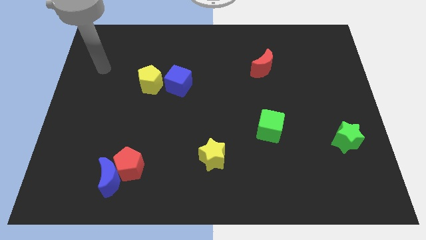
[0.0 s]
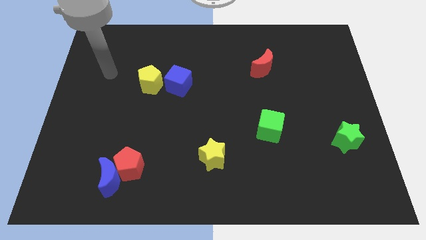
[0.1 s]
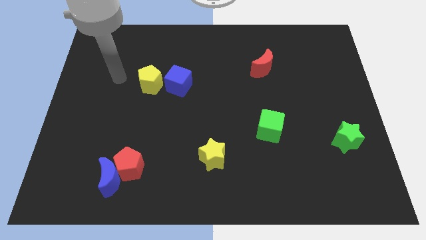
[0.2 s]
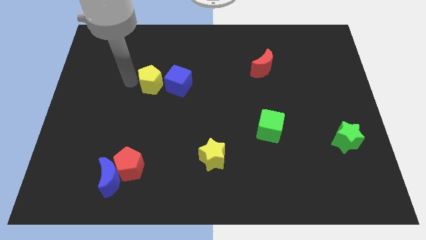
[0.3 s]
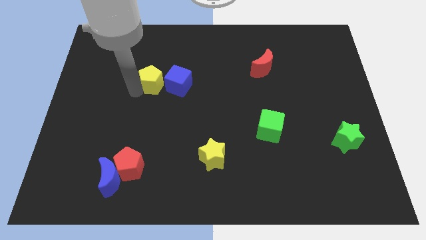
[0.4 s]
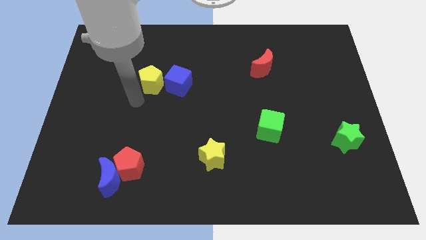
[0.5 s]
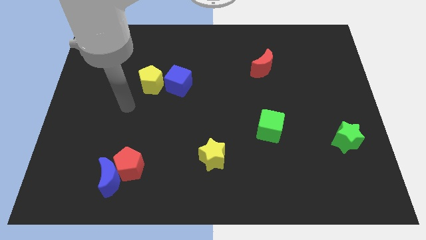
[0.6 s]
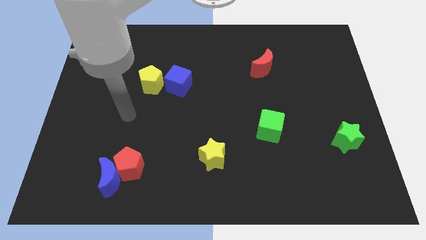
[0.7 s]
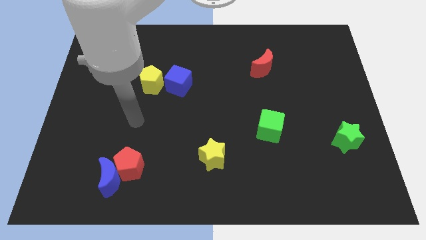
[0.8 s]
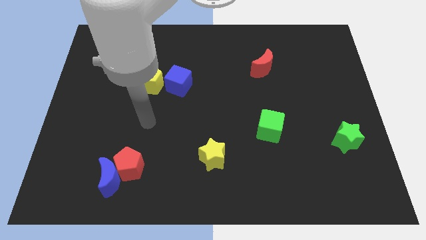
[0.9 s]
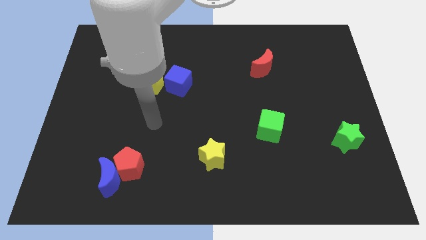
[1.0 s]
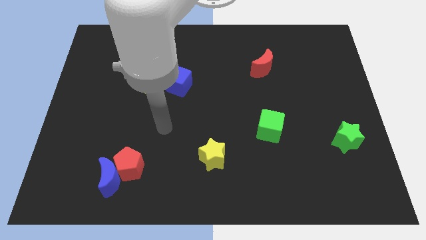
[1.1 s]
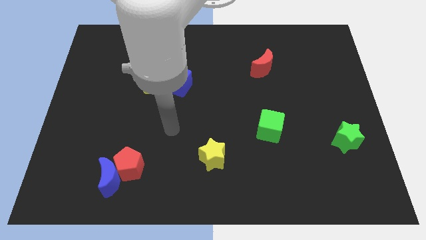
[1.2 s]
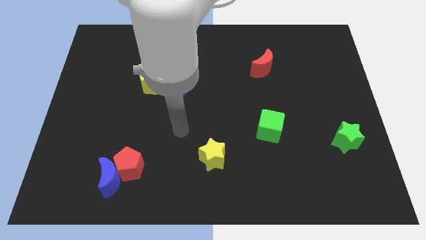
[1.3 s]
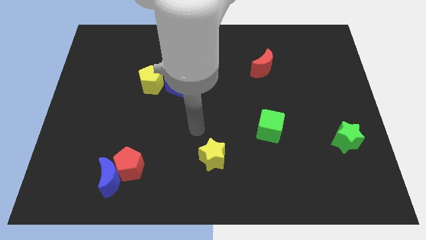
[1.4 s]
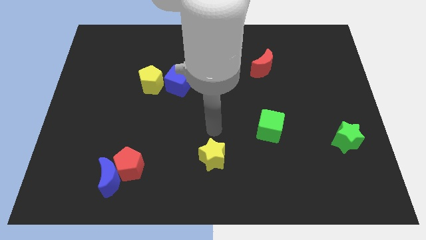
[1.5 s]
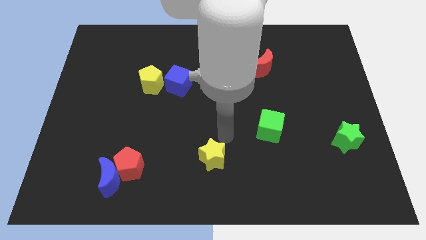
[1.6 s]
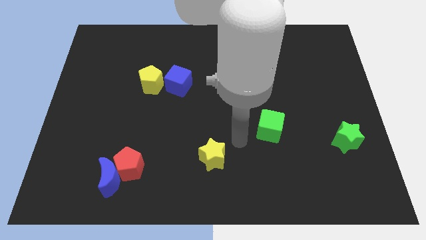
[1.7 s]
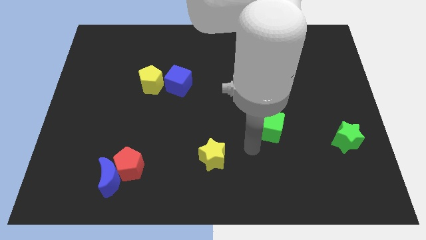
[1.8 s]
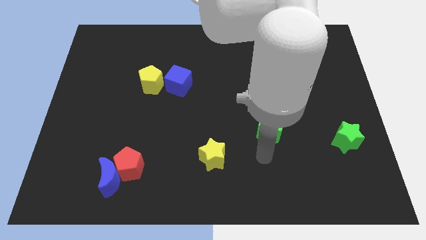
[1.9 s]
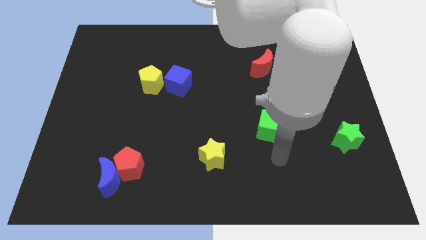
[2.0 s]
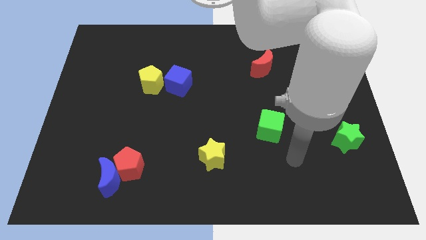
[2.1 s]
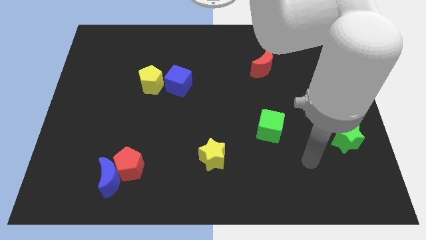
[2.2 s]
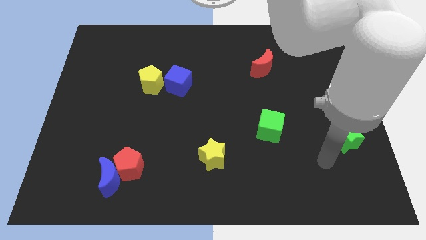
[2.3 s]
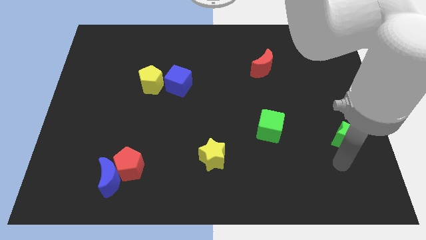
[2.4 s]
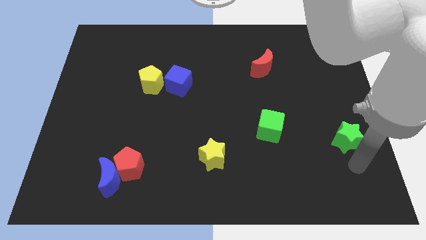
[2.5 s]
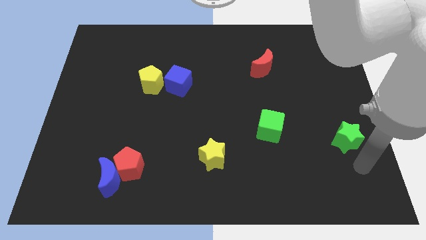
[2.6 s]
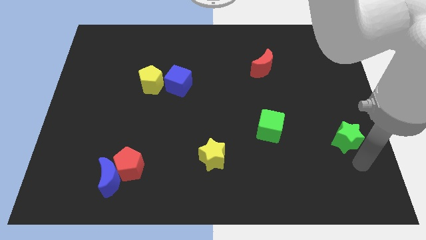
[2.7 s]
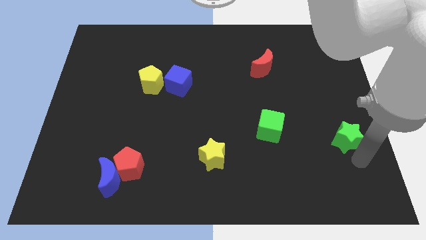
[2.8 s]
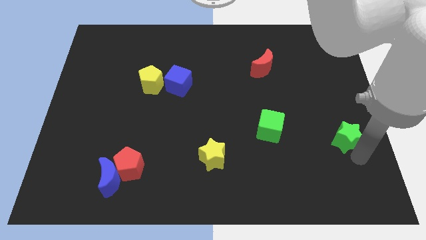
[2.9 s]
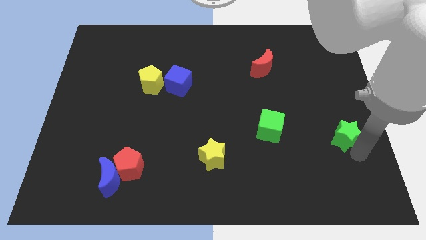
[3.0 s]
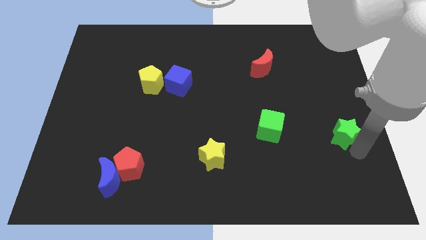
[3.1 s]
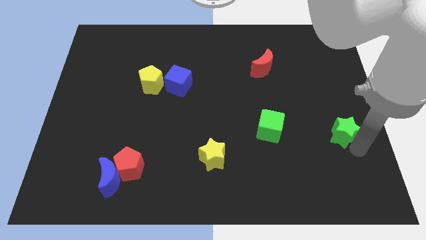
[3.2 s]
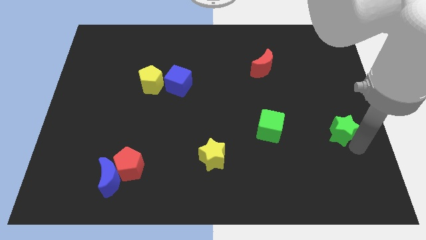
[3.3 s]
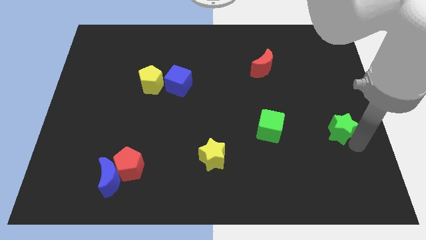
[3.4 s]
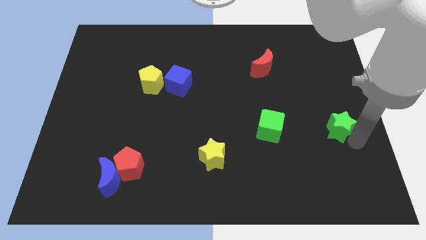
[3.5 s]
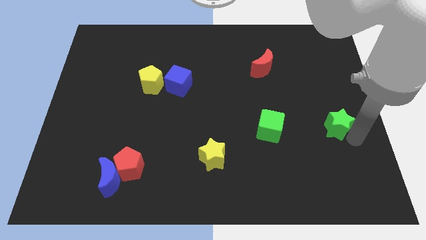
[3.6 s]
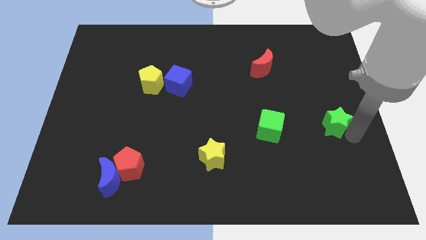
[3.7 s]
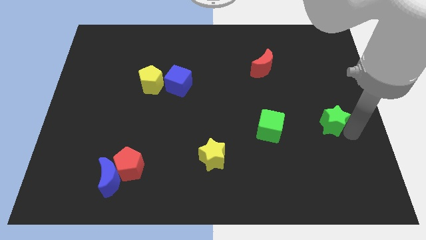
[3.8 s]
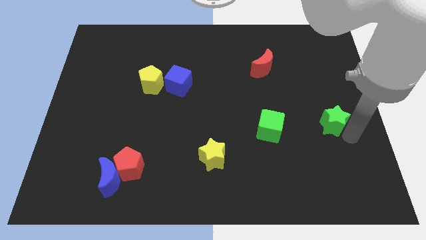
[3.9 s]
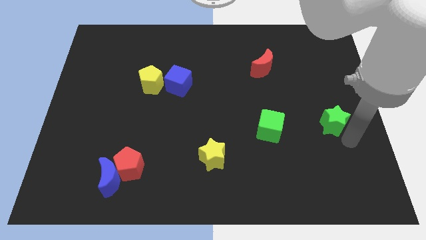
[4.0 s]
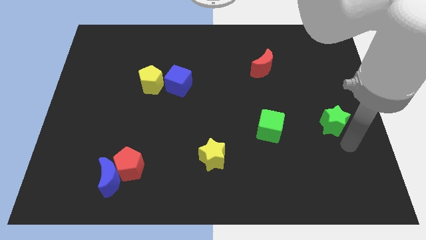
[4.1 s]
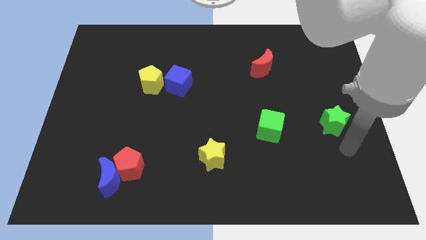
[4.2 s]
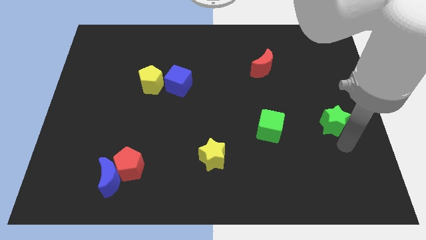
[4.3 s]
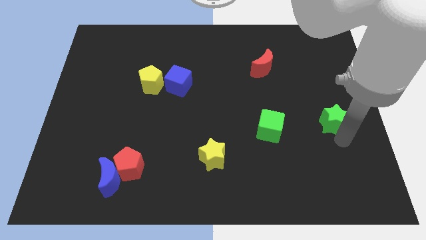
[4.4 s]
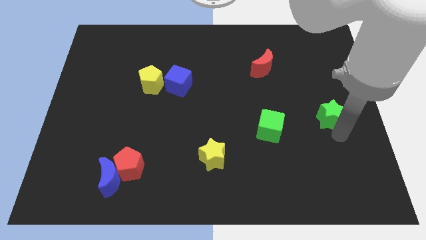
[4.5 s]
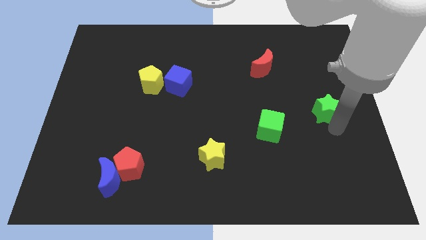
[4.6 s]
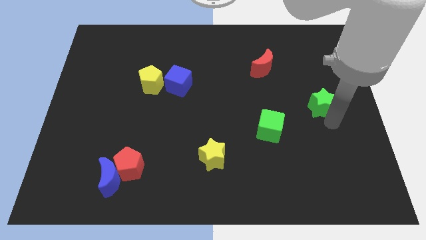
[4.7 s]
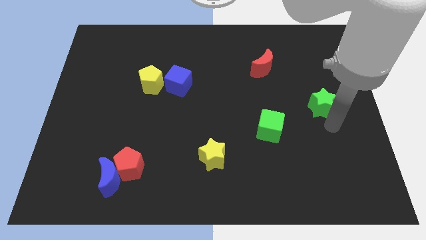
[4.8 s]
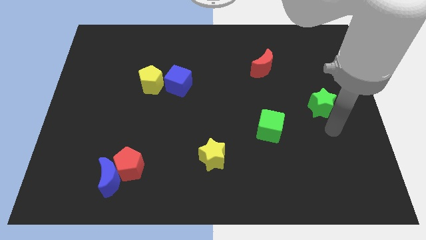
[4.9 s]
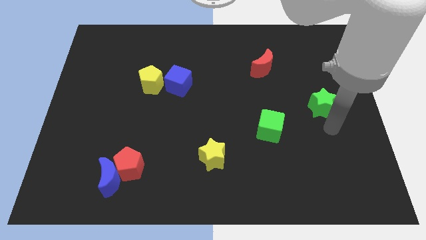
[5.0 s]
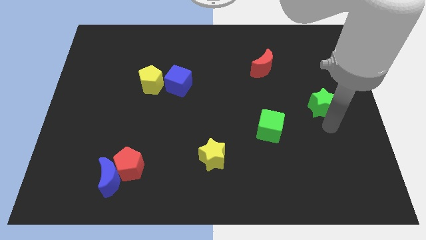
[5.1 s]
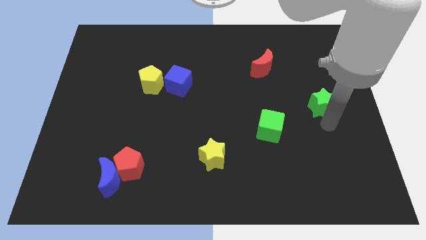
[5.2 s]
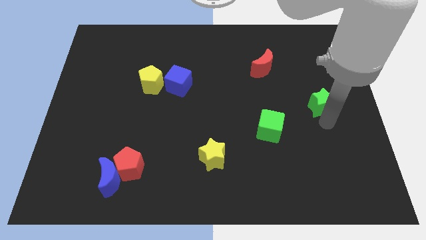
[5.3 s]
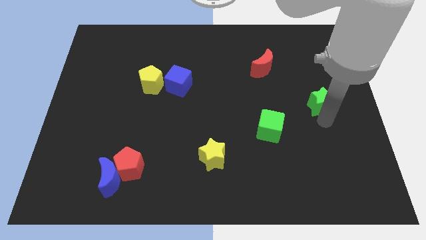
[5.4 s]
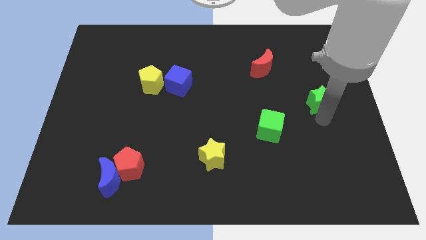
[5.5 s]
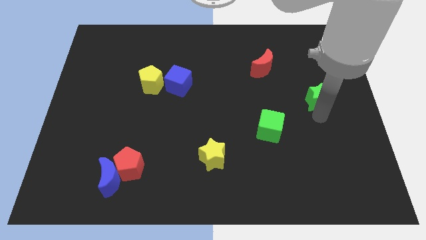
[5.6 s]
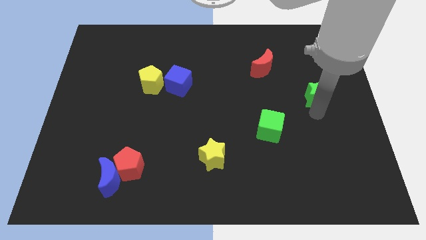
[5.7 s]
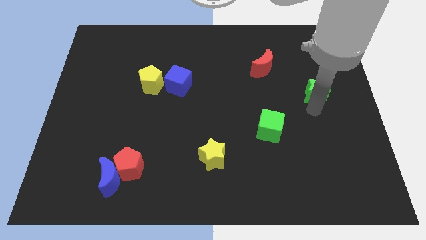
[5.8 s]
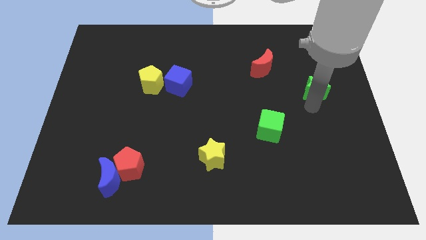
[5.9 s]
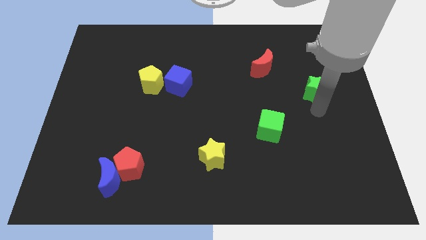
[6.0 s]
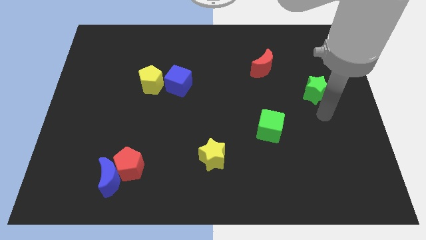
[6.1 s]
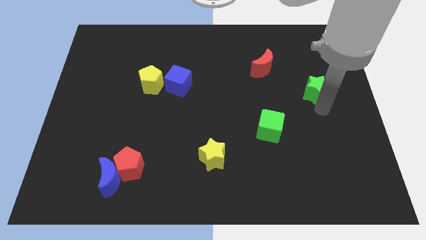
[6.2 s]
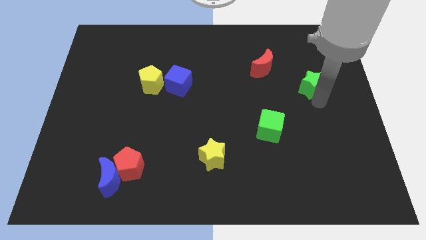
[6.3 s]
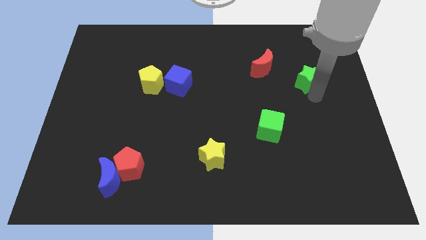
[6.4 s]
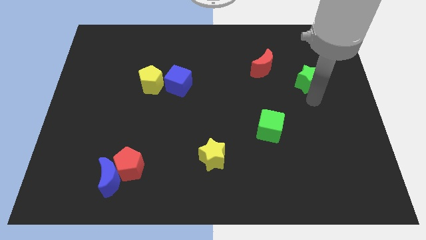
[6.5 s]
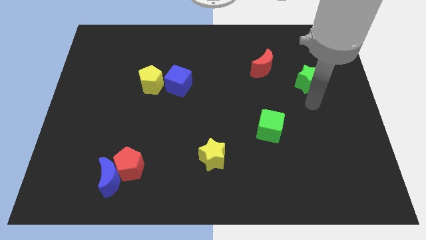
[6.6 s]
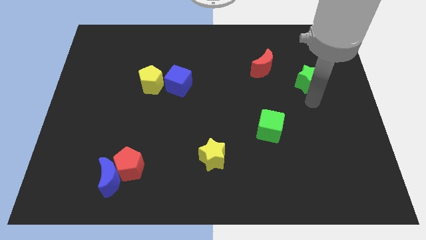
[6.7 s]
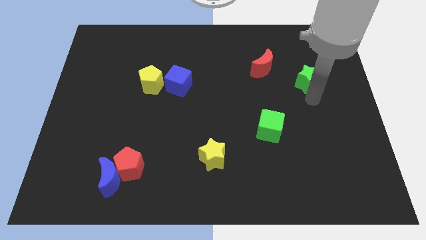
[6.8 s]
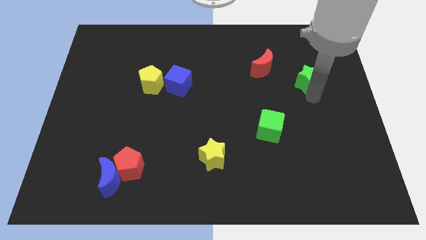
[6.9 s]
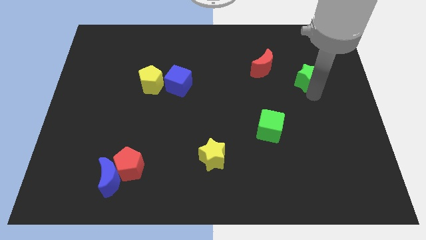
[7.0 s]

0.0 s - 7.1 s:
put the green star right of the red moon
